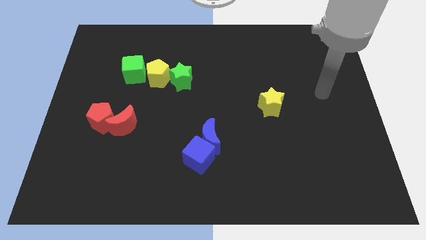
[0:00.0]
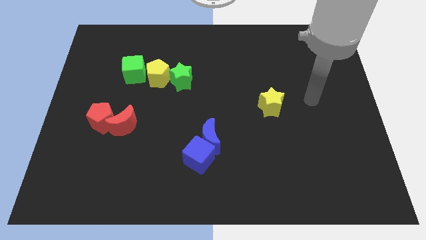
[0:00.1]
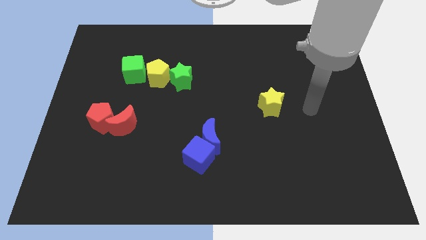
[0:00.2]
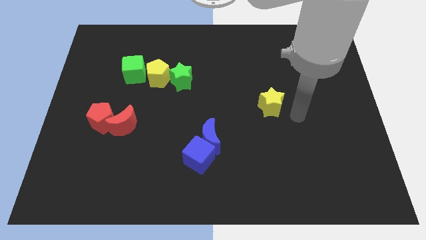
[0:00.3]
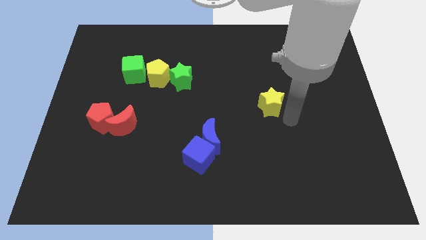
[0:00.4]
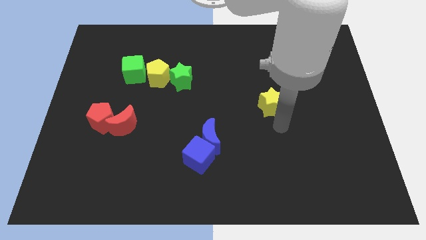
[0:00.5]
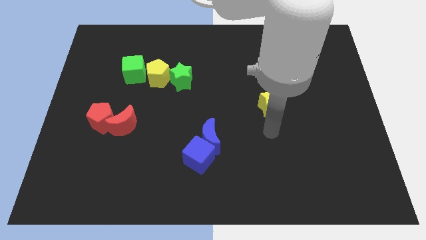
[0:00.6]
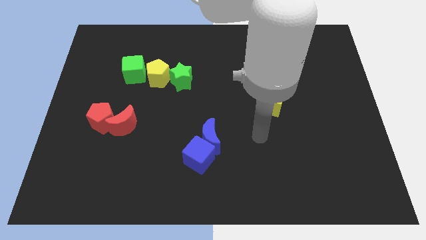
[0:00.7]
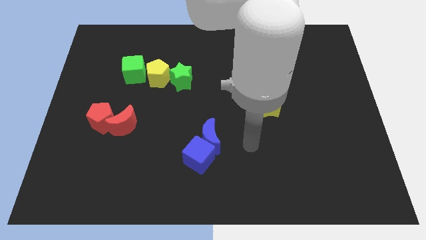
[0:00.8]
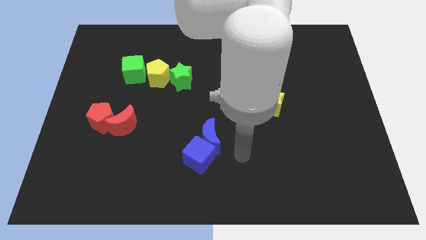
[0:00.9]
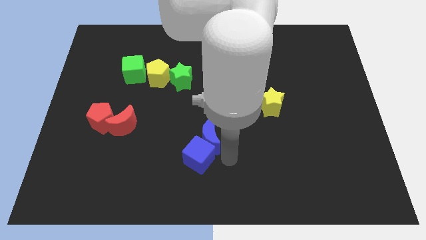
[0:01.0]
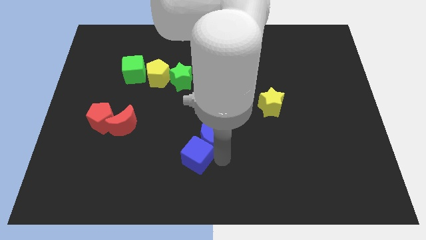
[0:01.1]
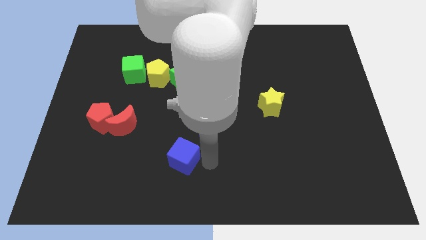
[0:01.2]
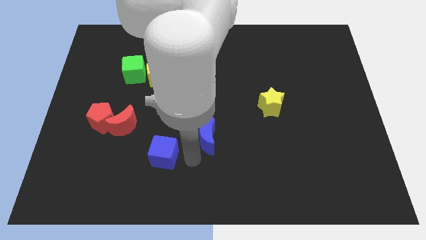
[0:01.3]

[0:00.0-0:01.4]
separate the blue moon from the blue cube

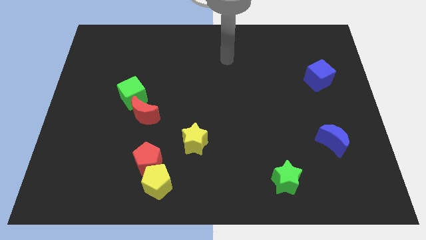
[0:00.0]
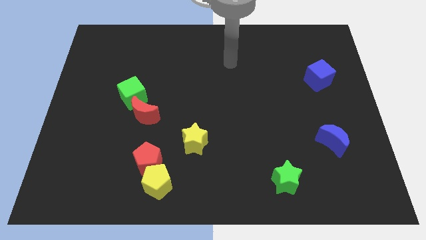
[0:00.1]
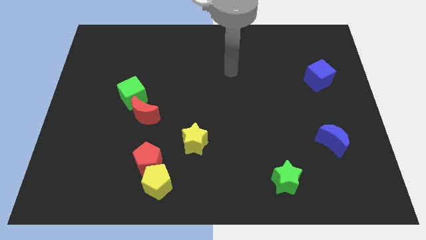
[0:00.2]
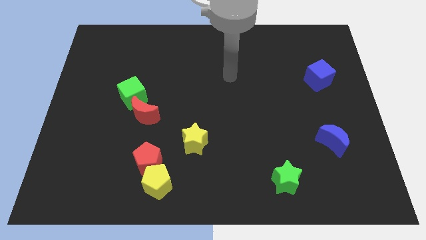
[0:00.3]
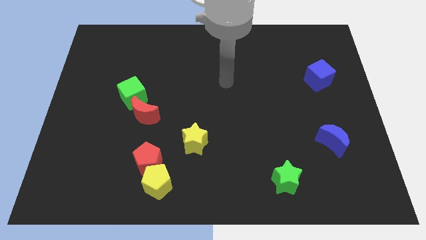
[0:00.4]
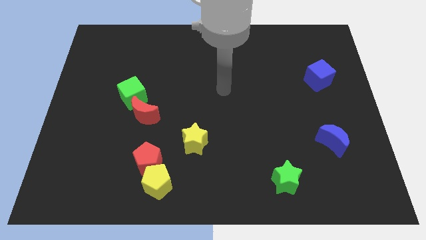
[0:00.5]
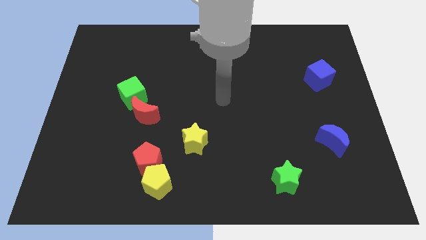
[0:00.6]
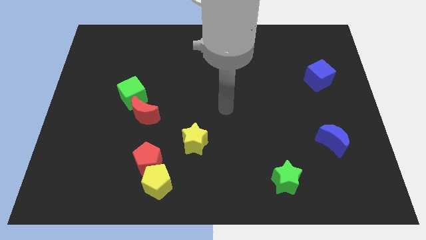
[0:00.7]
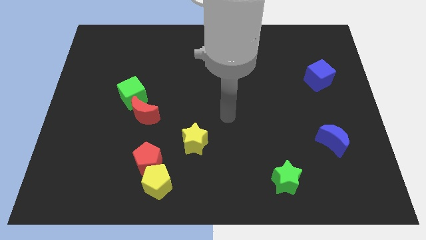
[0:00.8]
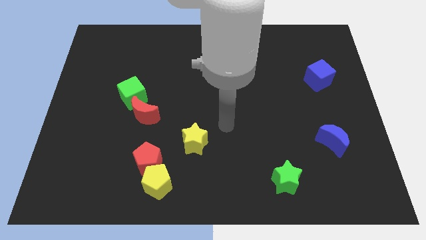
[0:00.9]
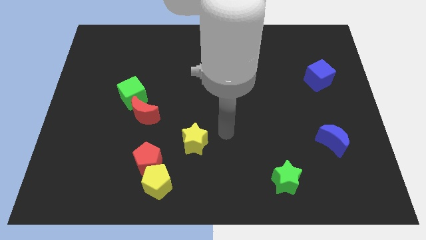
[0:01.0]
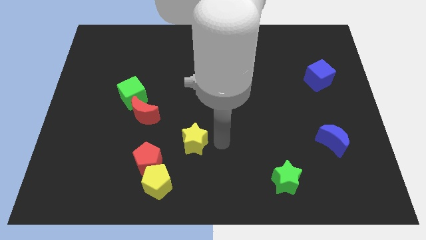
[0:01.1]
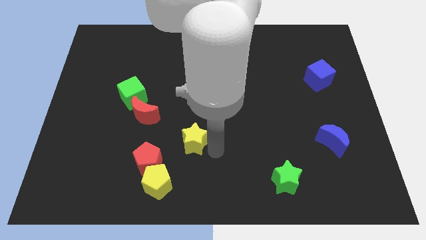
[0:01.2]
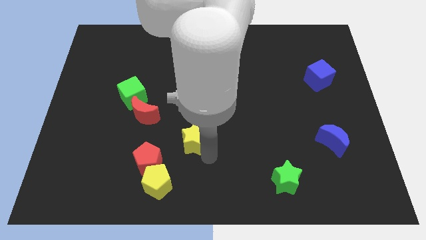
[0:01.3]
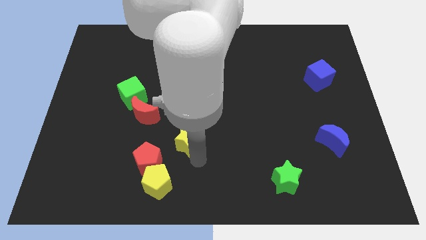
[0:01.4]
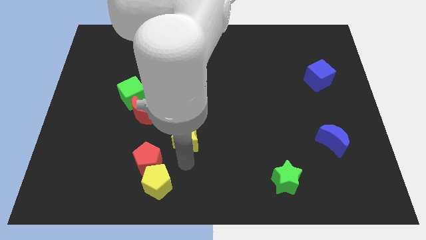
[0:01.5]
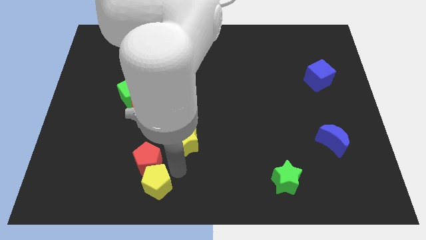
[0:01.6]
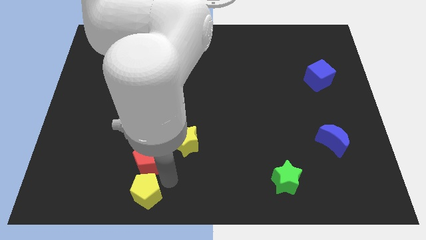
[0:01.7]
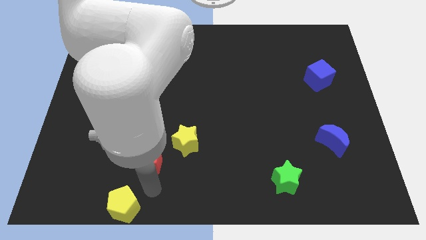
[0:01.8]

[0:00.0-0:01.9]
move the red pentagon away from the yellow pentagon

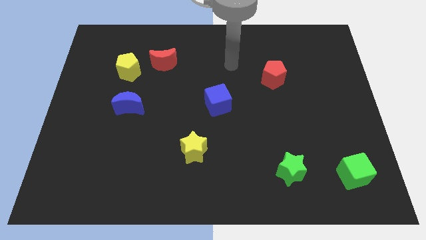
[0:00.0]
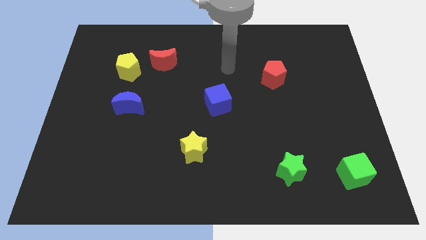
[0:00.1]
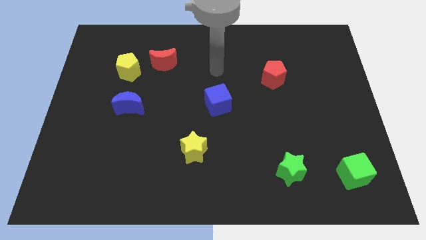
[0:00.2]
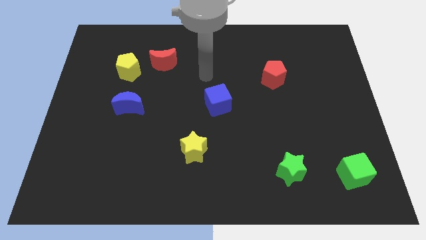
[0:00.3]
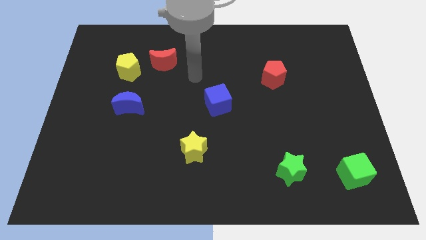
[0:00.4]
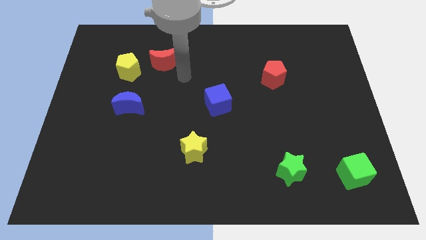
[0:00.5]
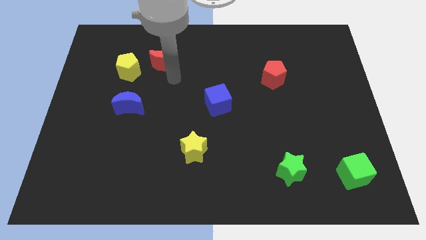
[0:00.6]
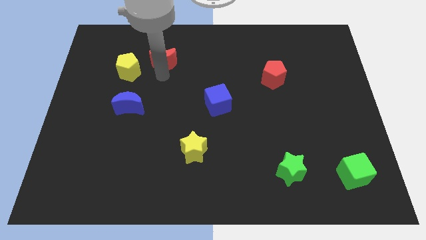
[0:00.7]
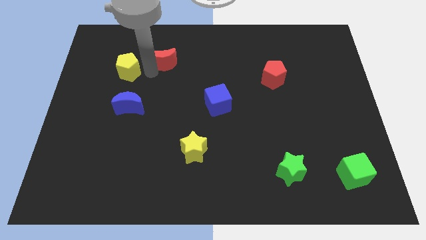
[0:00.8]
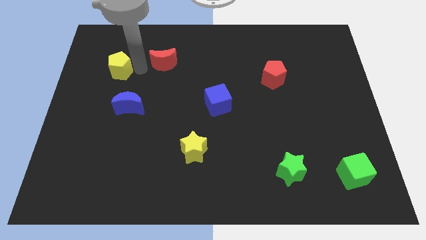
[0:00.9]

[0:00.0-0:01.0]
separate the red moon from the yellow pentagon

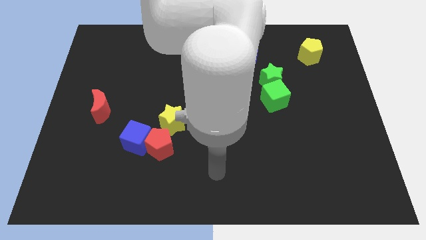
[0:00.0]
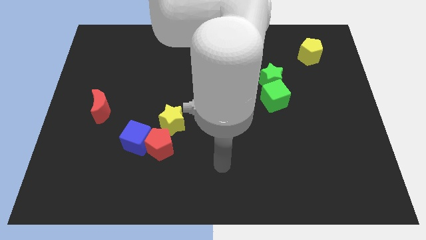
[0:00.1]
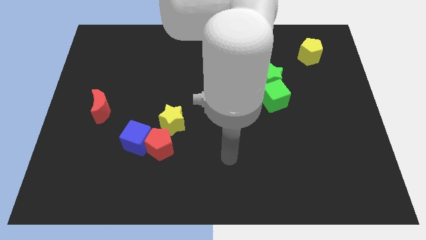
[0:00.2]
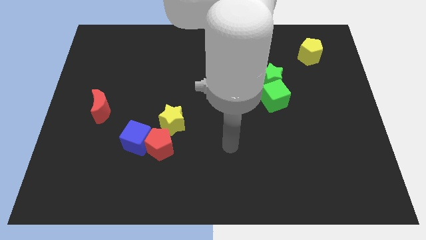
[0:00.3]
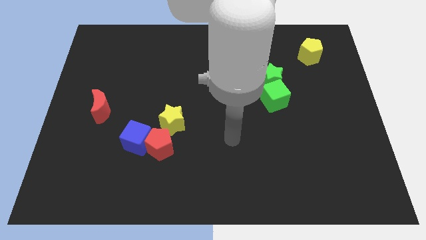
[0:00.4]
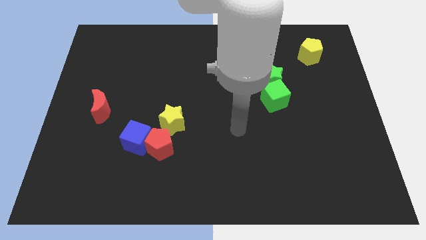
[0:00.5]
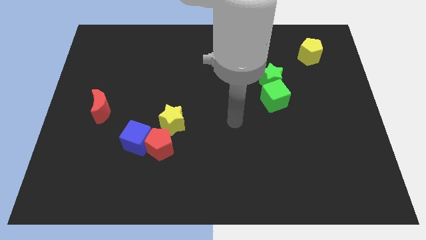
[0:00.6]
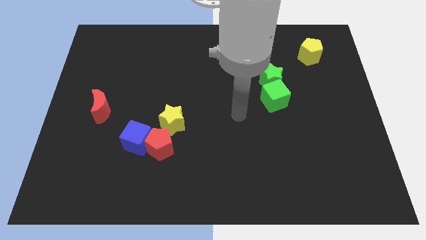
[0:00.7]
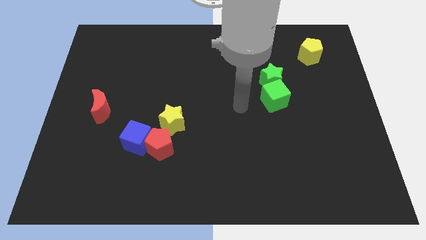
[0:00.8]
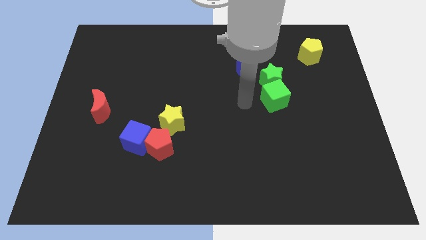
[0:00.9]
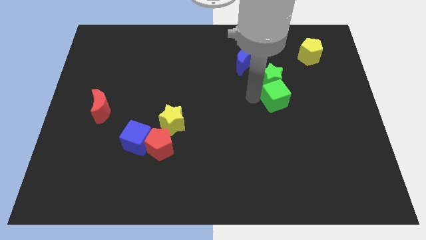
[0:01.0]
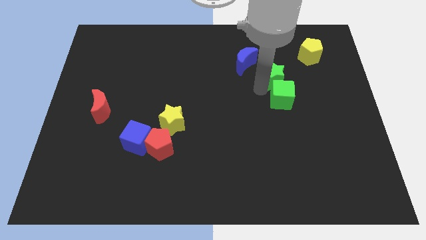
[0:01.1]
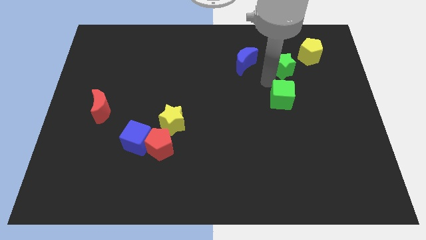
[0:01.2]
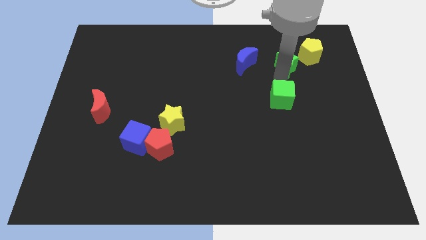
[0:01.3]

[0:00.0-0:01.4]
separate the green cube from the green star

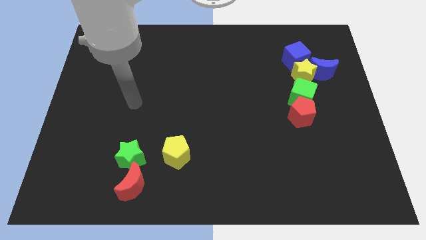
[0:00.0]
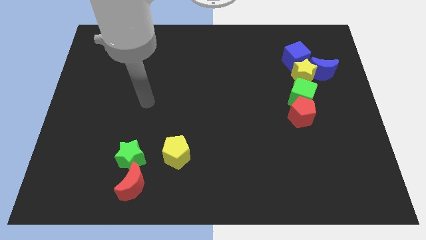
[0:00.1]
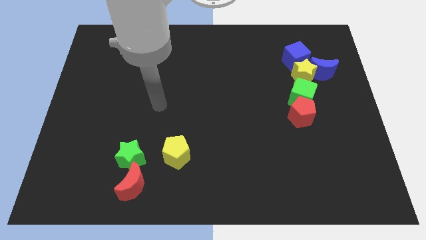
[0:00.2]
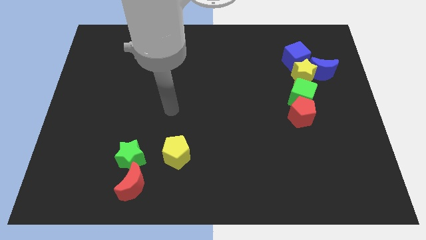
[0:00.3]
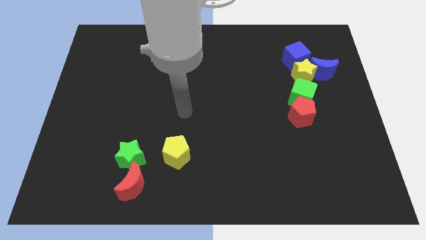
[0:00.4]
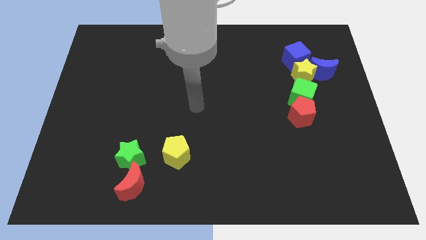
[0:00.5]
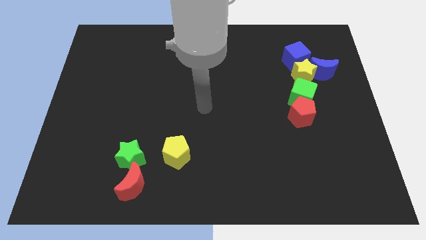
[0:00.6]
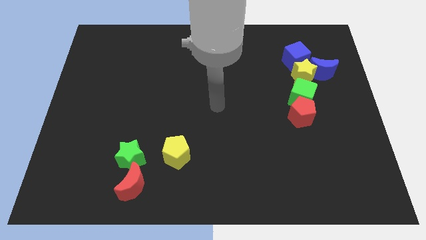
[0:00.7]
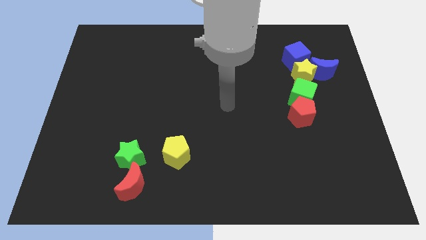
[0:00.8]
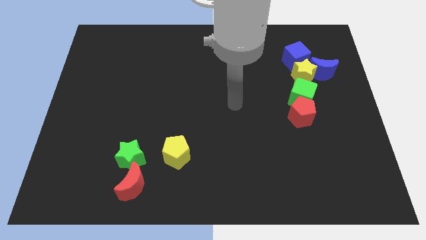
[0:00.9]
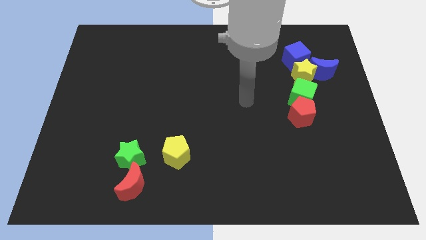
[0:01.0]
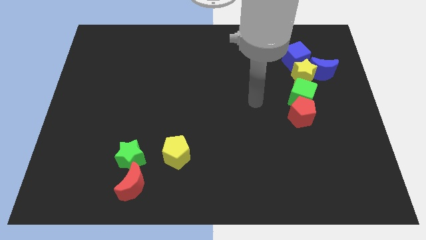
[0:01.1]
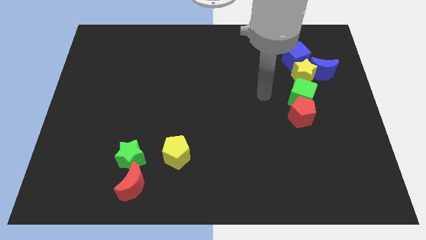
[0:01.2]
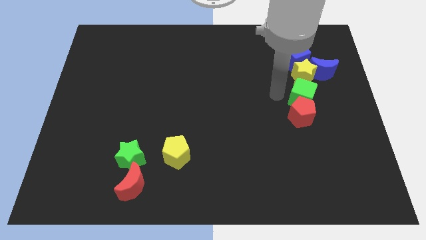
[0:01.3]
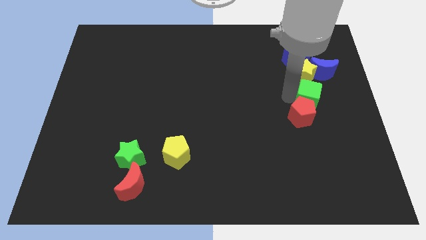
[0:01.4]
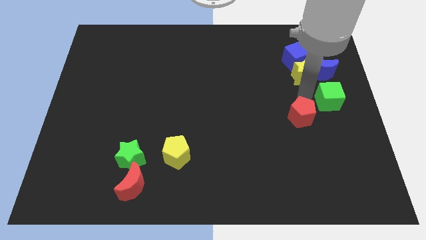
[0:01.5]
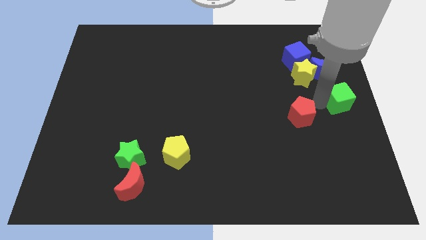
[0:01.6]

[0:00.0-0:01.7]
move the red pentagon away from the green cube

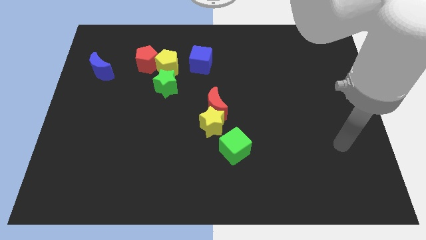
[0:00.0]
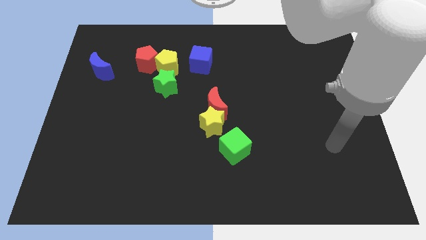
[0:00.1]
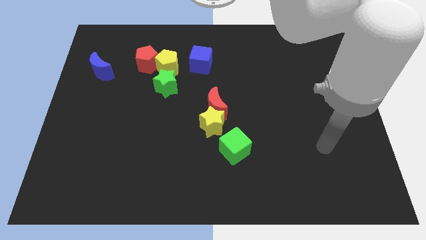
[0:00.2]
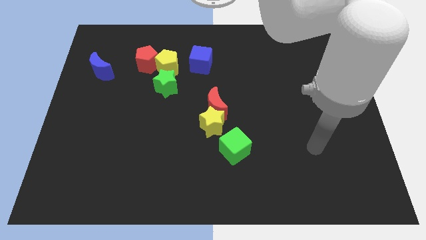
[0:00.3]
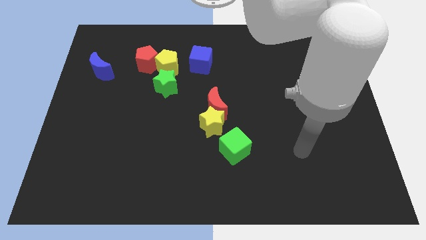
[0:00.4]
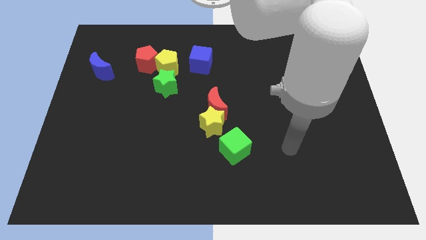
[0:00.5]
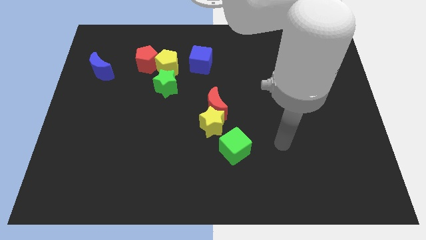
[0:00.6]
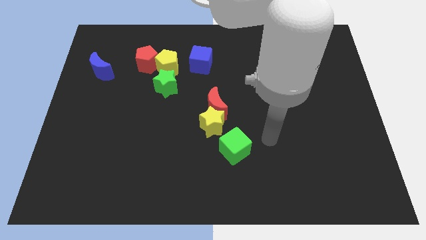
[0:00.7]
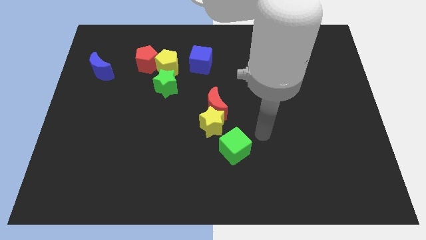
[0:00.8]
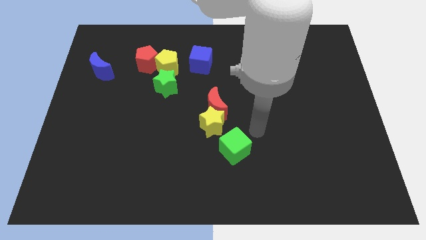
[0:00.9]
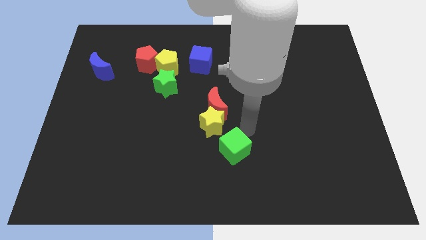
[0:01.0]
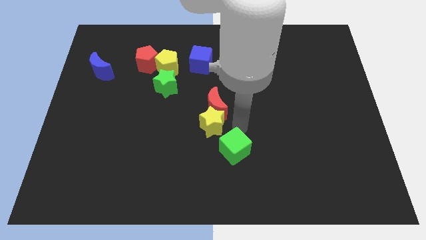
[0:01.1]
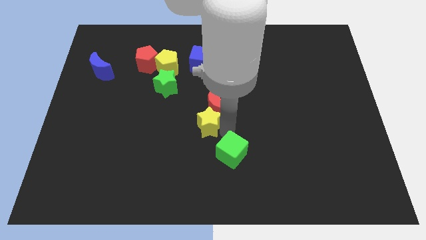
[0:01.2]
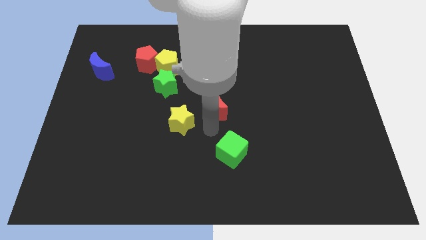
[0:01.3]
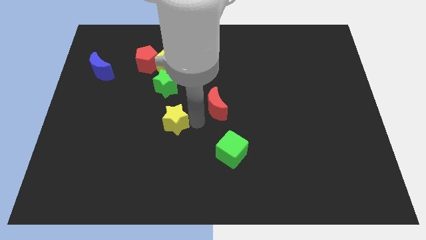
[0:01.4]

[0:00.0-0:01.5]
move the red moon away from the yellow star

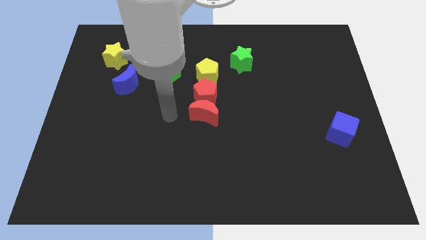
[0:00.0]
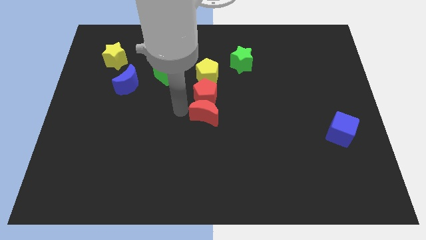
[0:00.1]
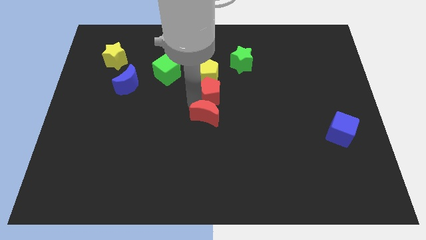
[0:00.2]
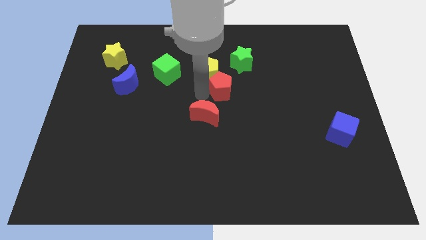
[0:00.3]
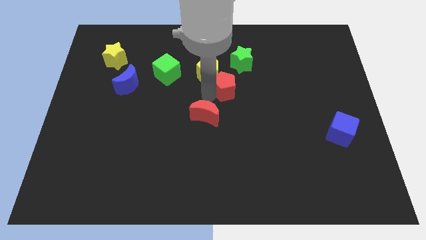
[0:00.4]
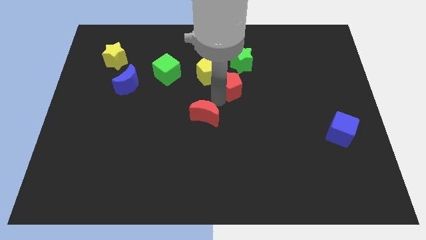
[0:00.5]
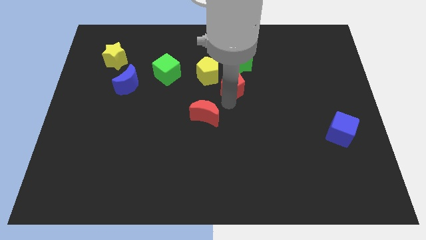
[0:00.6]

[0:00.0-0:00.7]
move the red moon away from the red pentagon
